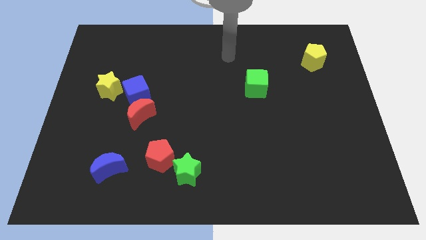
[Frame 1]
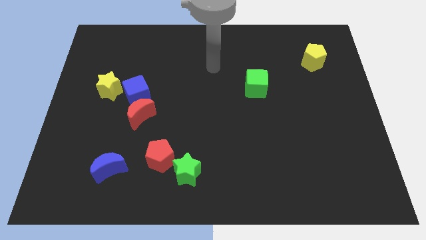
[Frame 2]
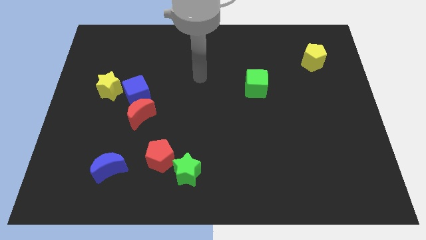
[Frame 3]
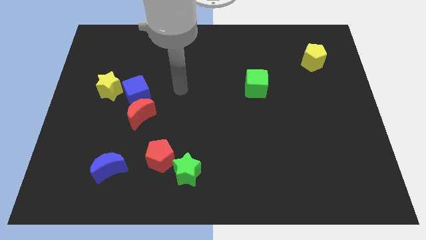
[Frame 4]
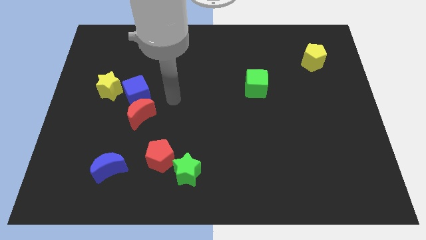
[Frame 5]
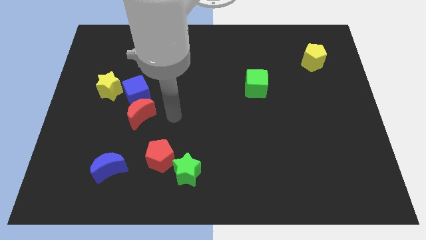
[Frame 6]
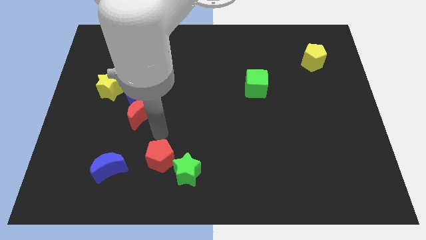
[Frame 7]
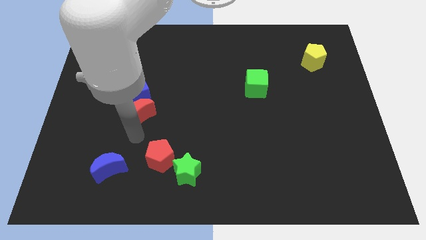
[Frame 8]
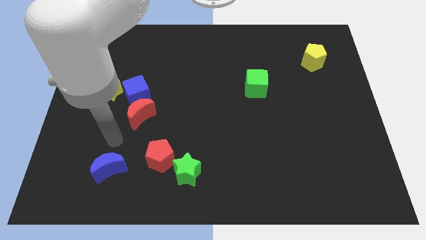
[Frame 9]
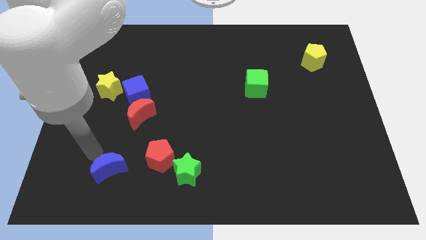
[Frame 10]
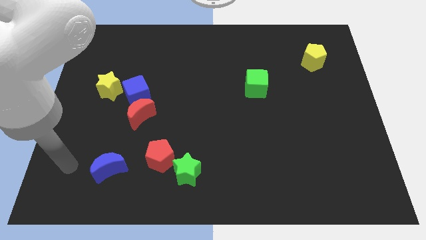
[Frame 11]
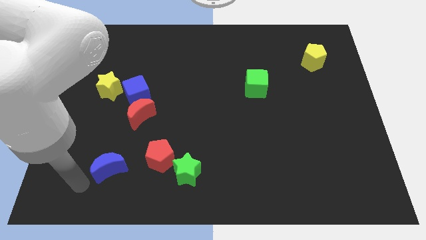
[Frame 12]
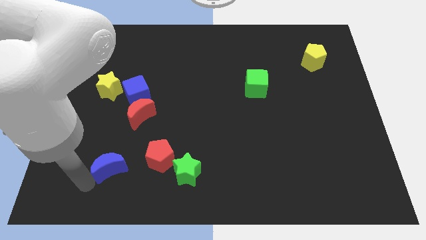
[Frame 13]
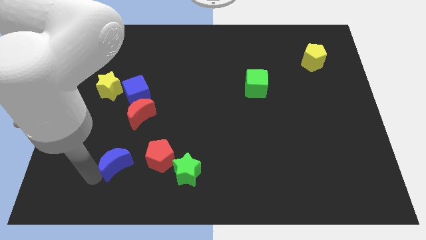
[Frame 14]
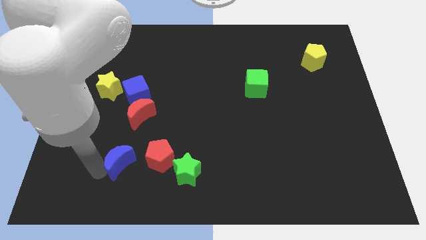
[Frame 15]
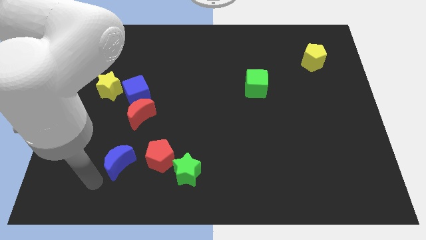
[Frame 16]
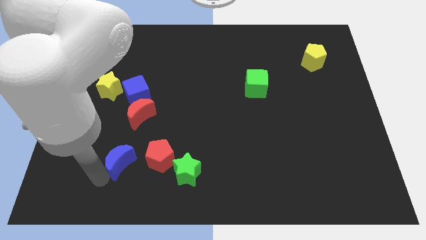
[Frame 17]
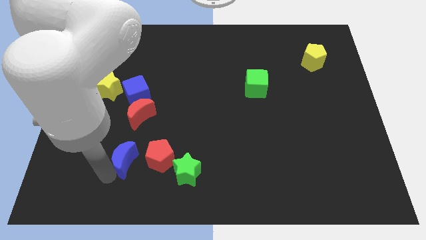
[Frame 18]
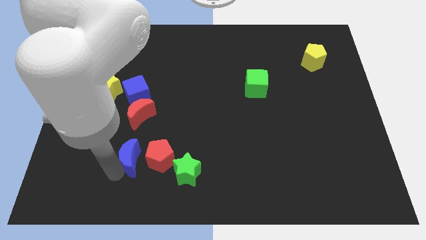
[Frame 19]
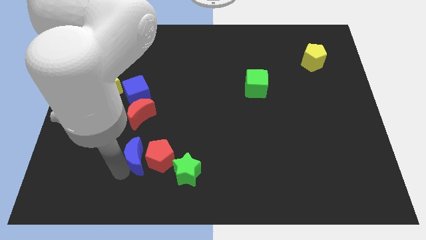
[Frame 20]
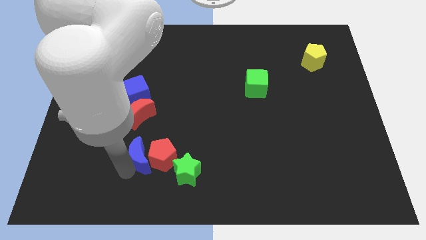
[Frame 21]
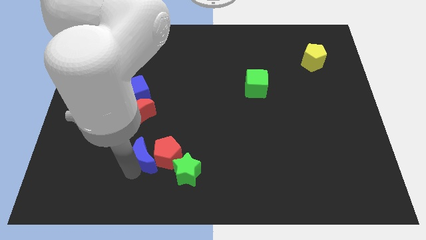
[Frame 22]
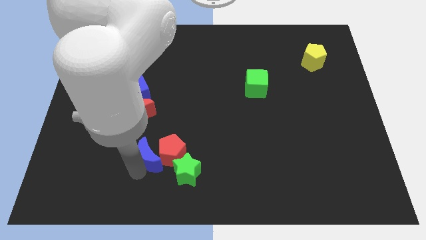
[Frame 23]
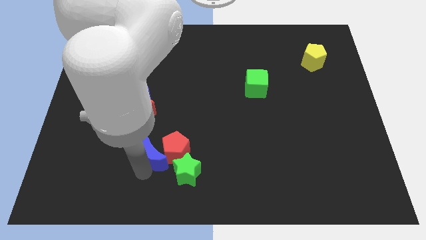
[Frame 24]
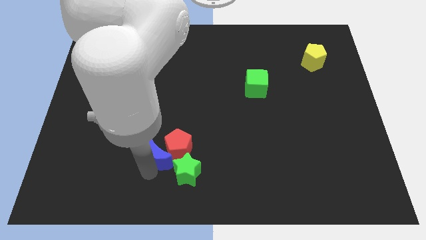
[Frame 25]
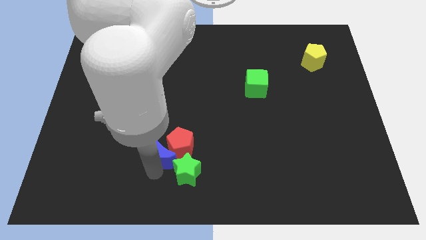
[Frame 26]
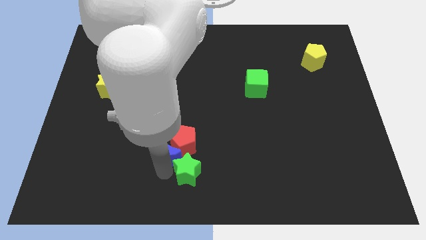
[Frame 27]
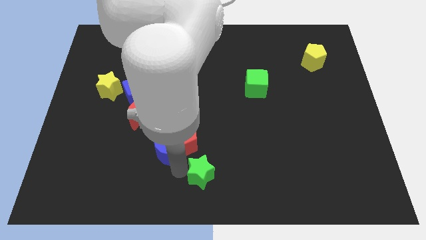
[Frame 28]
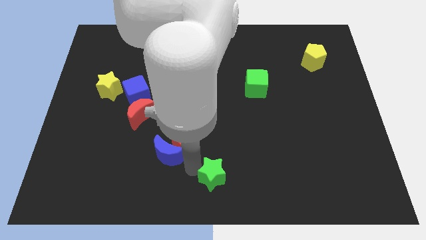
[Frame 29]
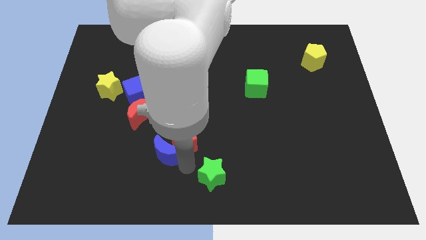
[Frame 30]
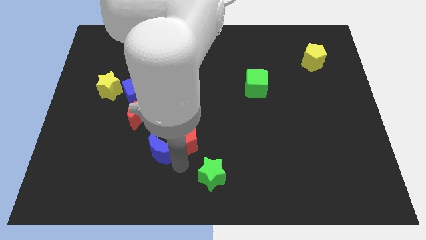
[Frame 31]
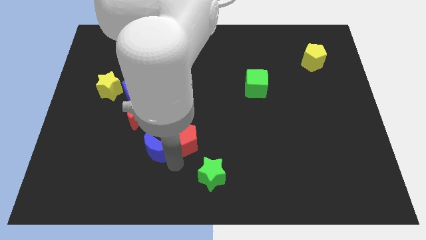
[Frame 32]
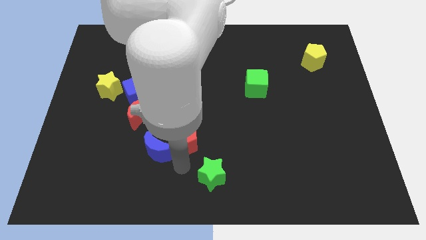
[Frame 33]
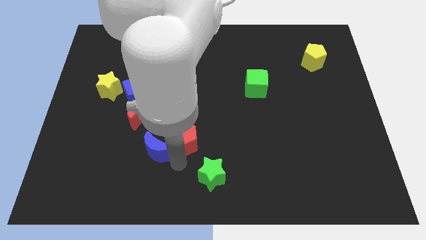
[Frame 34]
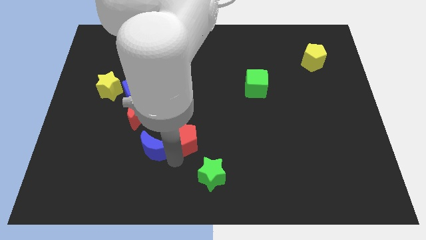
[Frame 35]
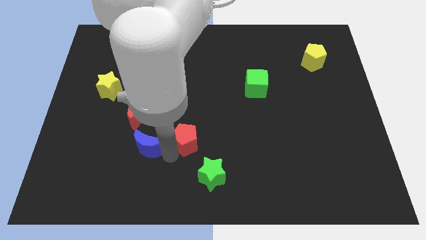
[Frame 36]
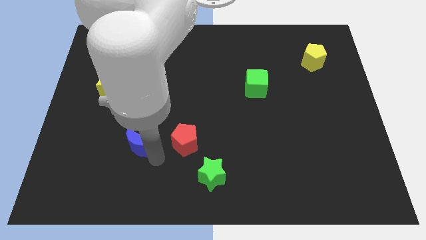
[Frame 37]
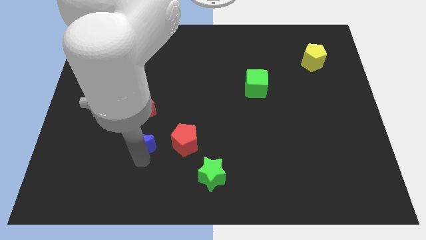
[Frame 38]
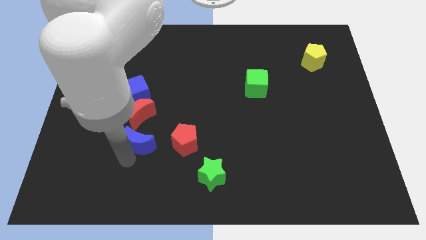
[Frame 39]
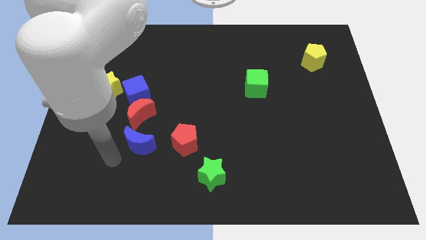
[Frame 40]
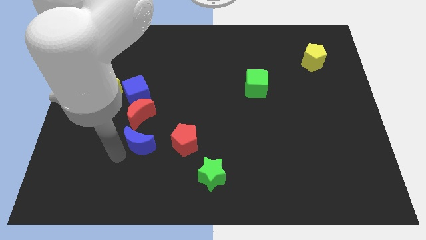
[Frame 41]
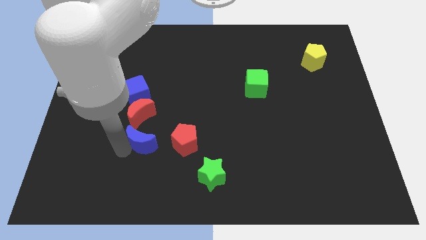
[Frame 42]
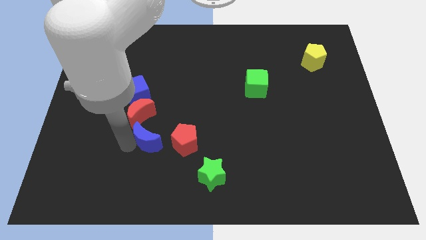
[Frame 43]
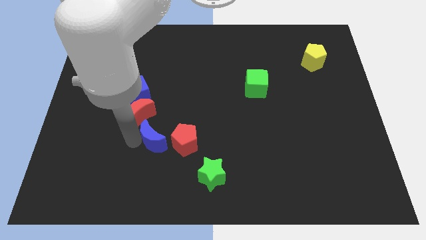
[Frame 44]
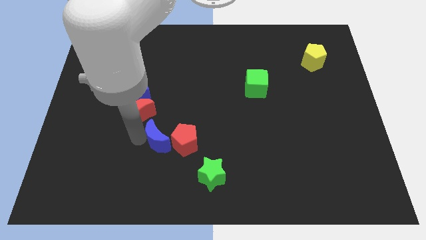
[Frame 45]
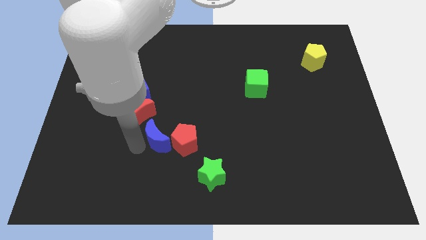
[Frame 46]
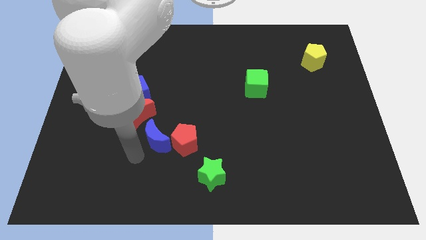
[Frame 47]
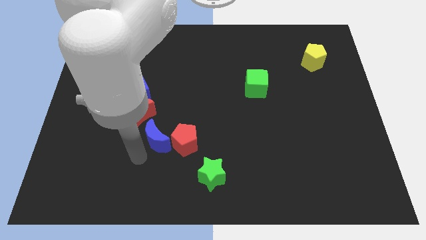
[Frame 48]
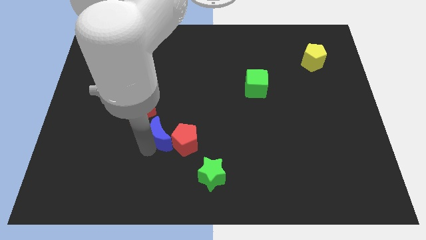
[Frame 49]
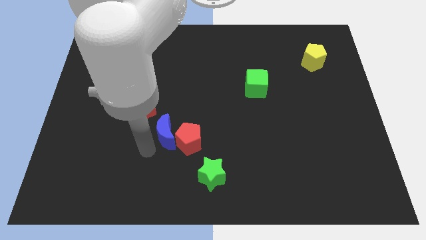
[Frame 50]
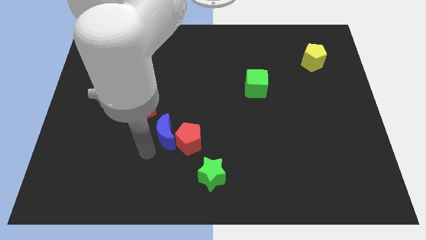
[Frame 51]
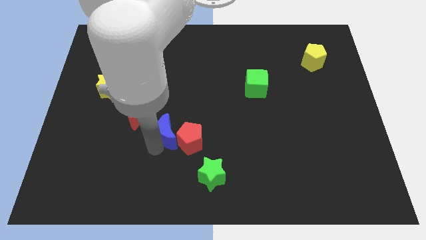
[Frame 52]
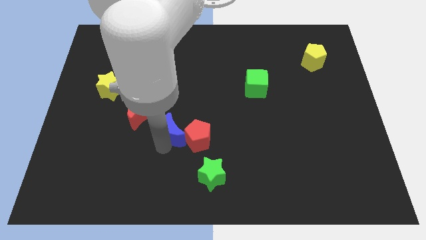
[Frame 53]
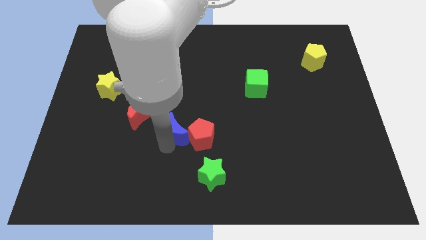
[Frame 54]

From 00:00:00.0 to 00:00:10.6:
push the blue moon to the middle

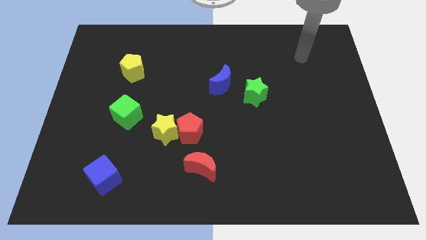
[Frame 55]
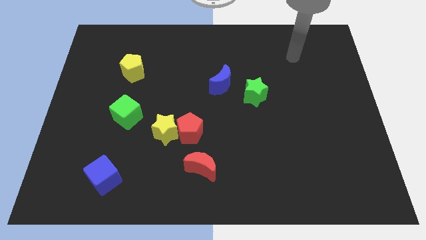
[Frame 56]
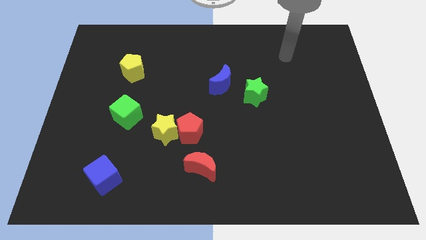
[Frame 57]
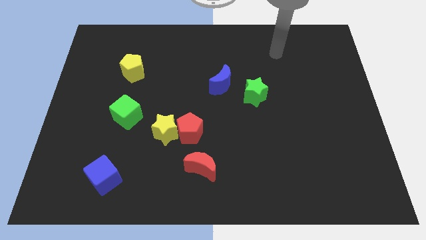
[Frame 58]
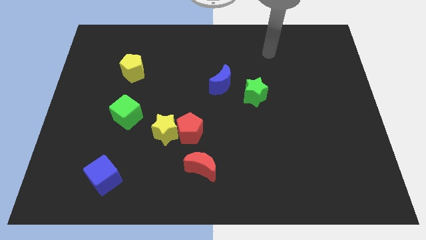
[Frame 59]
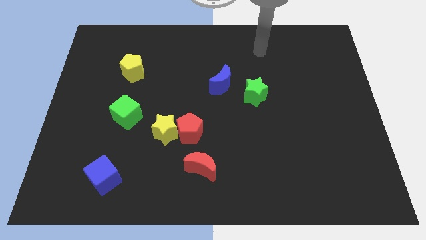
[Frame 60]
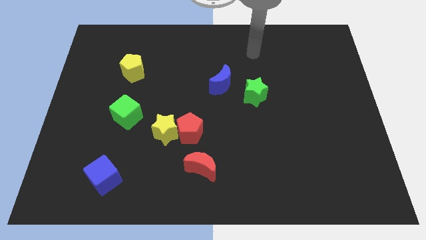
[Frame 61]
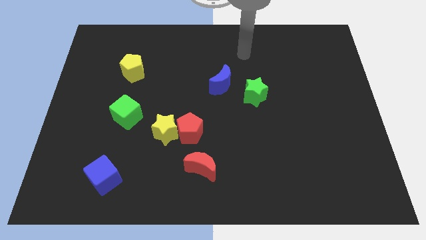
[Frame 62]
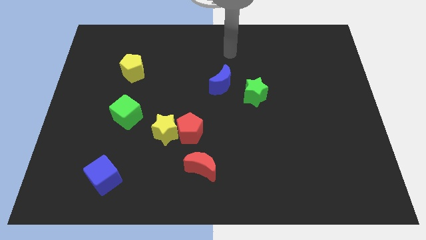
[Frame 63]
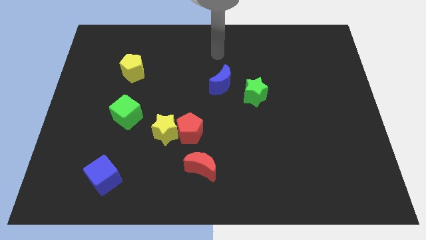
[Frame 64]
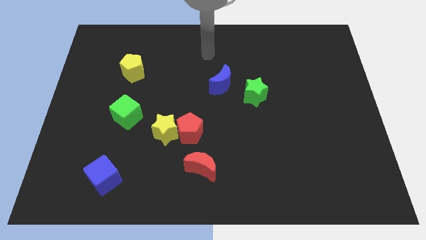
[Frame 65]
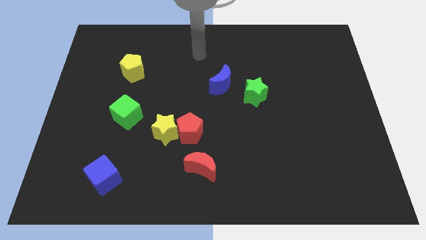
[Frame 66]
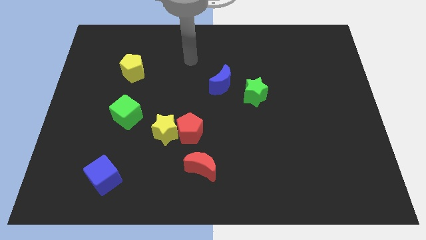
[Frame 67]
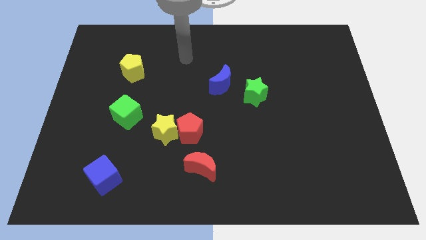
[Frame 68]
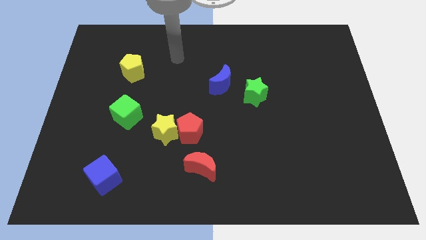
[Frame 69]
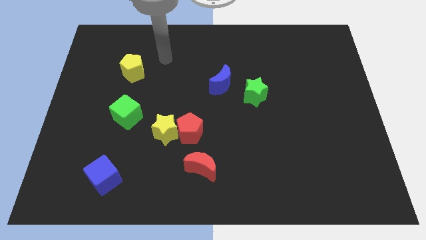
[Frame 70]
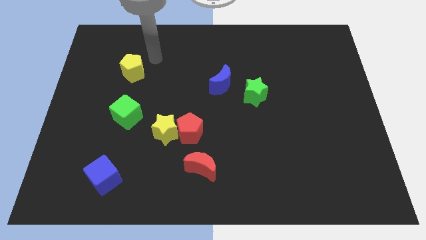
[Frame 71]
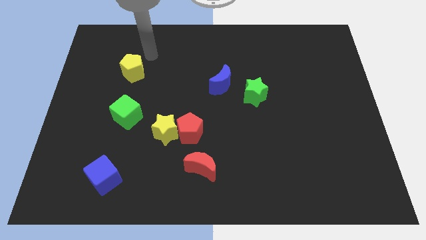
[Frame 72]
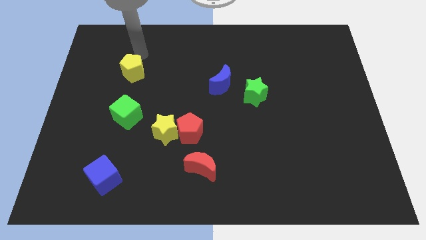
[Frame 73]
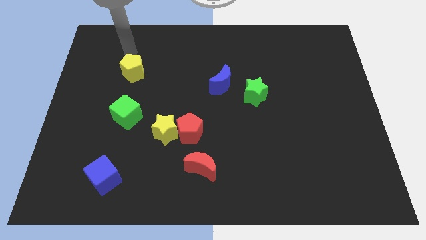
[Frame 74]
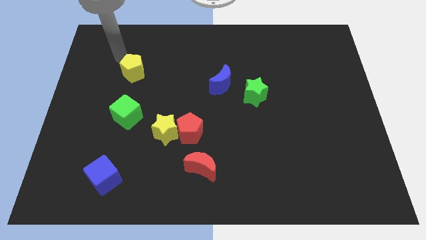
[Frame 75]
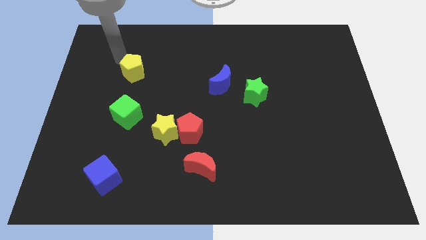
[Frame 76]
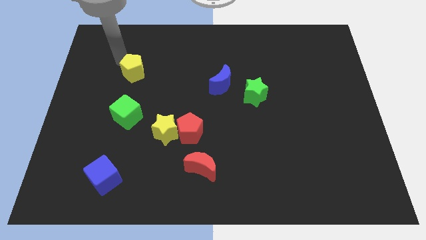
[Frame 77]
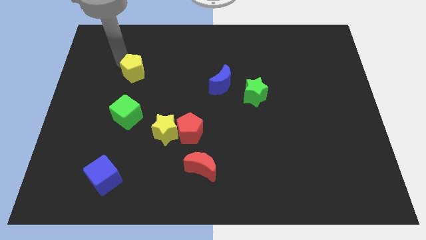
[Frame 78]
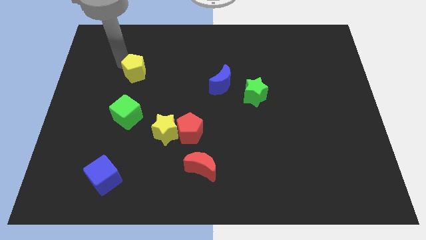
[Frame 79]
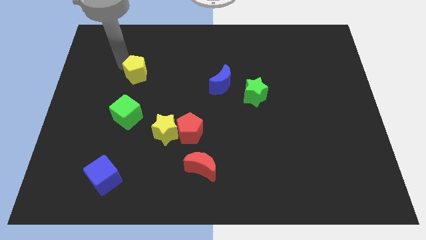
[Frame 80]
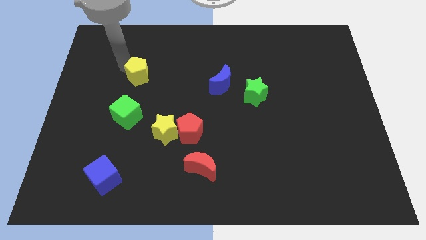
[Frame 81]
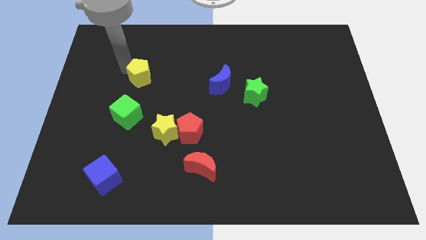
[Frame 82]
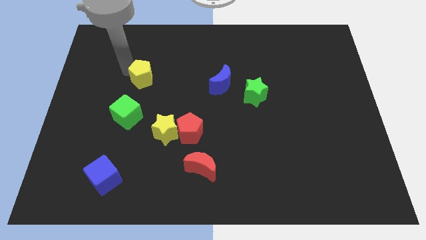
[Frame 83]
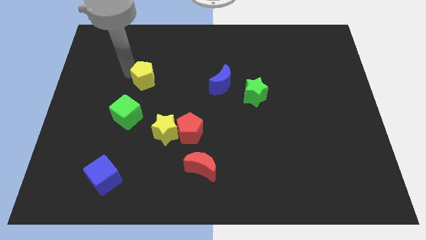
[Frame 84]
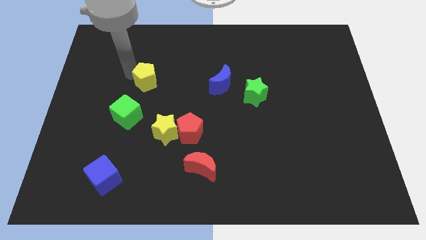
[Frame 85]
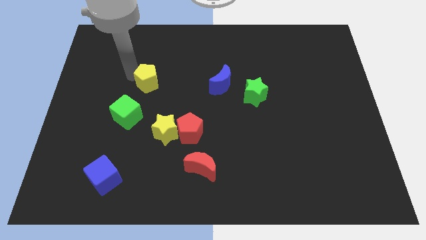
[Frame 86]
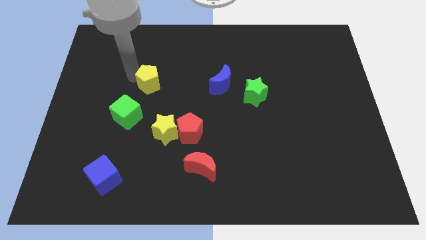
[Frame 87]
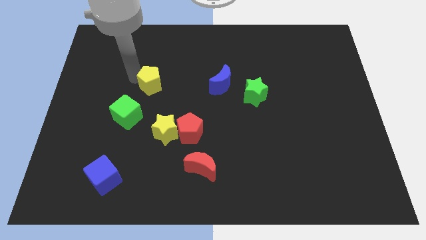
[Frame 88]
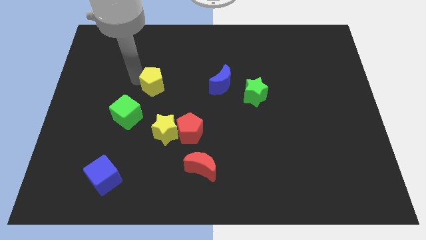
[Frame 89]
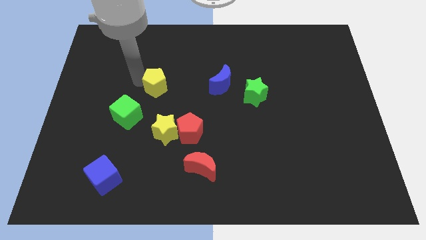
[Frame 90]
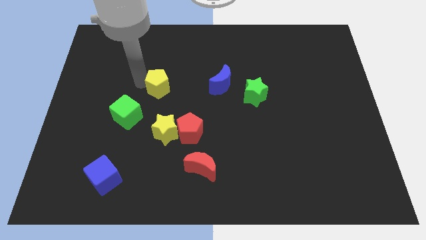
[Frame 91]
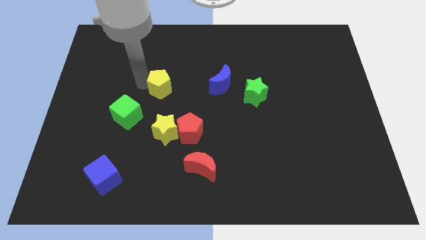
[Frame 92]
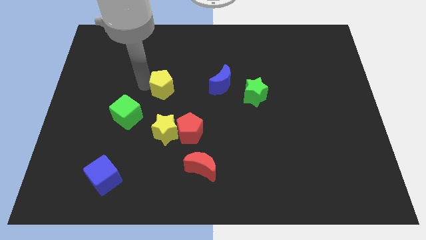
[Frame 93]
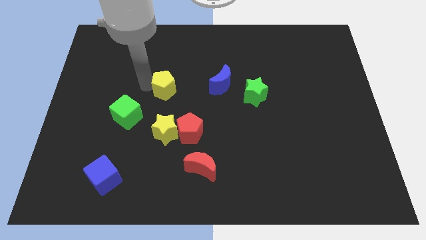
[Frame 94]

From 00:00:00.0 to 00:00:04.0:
slide the yellow pentagon to the center of the board
